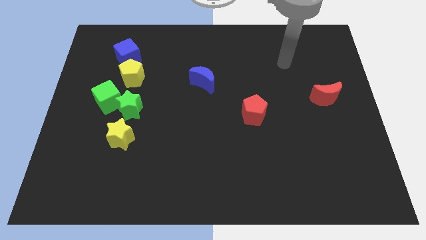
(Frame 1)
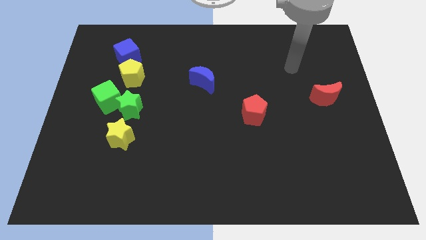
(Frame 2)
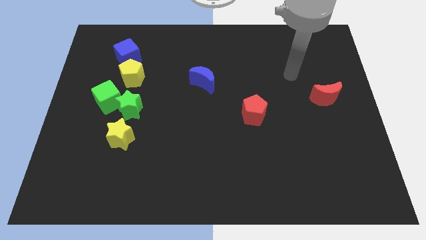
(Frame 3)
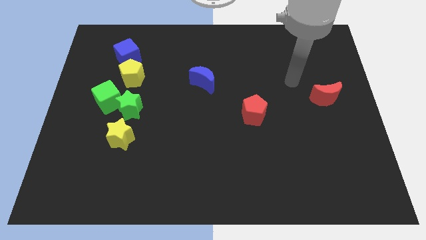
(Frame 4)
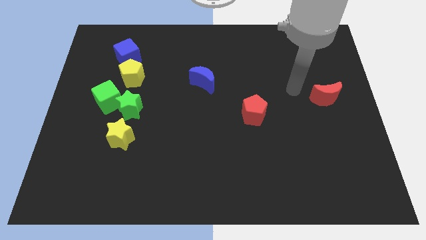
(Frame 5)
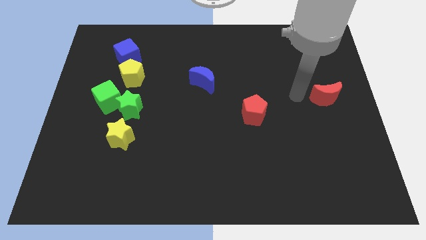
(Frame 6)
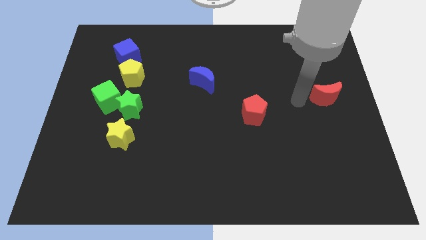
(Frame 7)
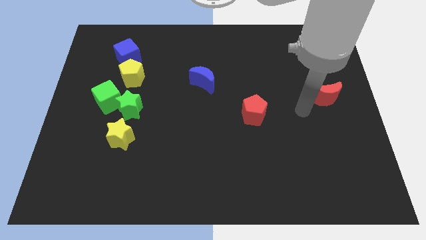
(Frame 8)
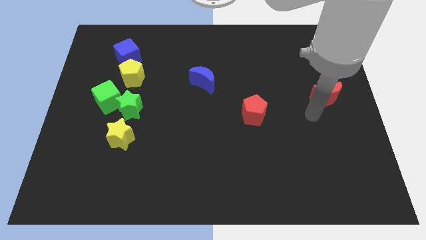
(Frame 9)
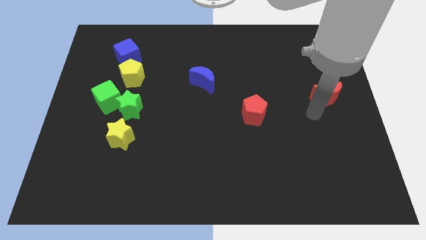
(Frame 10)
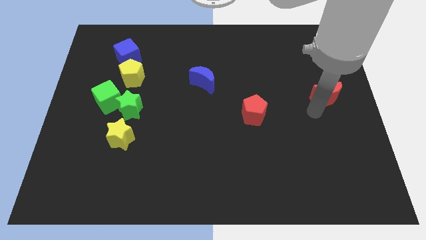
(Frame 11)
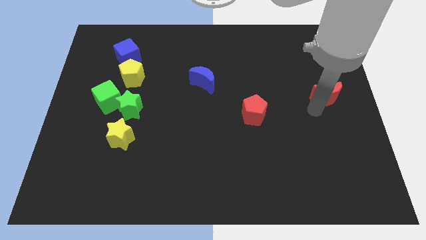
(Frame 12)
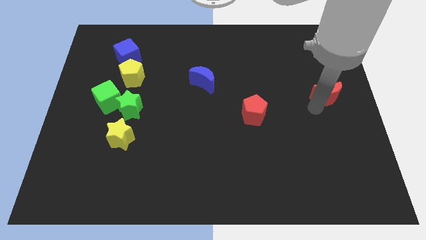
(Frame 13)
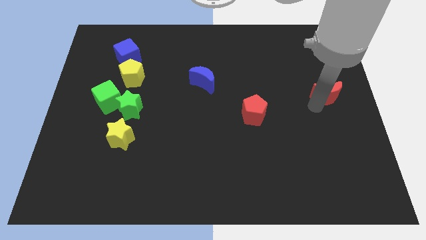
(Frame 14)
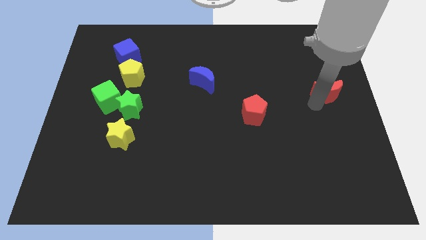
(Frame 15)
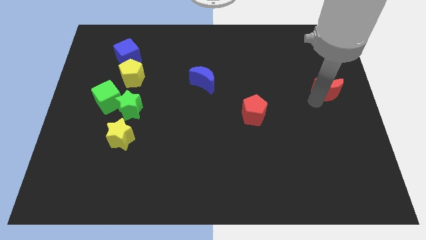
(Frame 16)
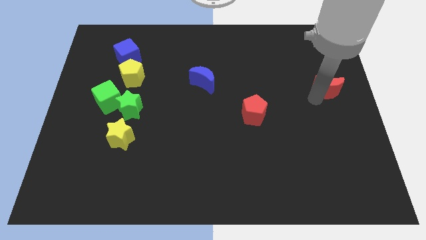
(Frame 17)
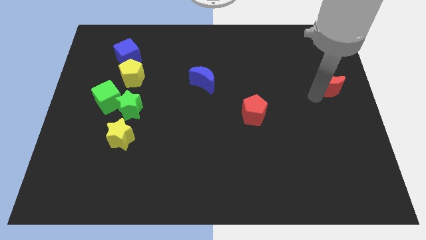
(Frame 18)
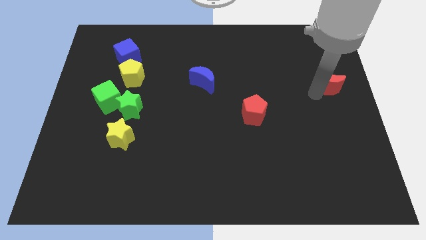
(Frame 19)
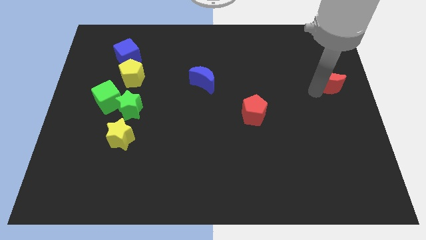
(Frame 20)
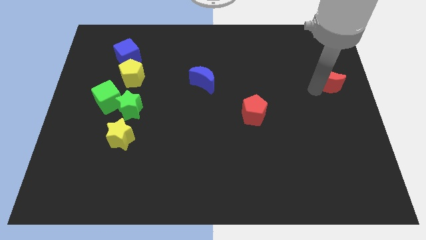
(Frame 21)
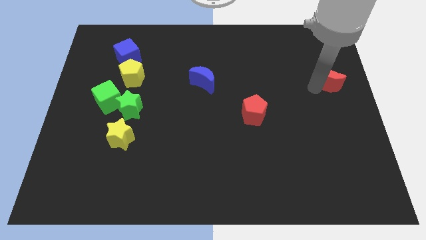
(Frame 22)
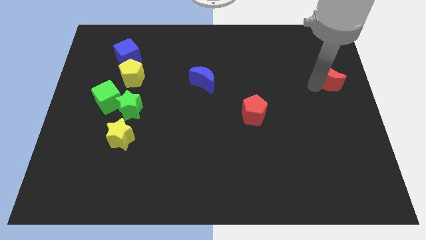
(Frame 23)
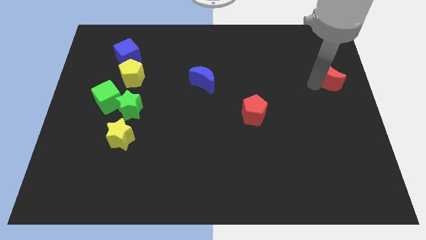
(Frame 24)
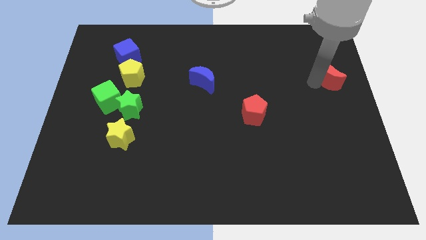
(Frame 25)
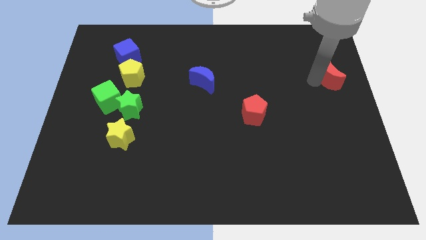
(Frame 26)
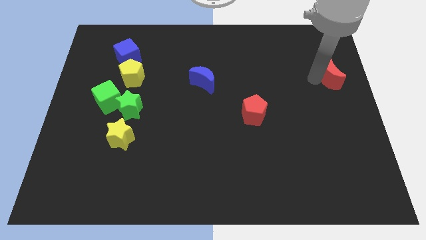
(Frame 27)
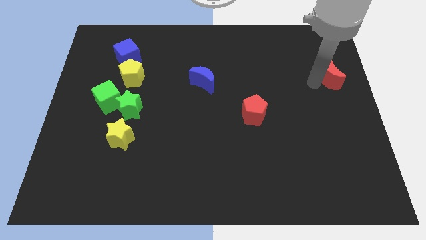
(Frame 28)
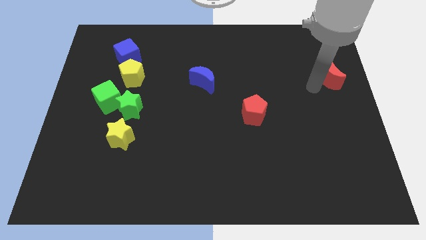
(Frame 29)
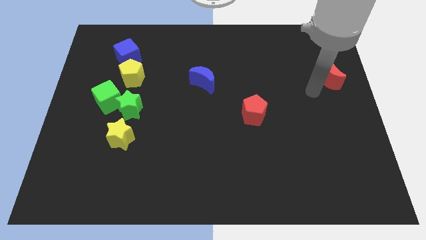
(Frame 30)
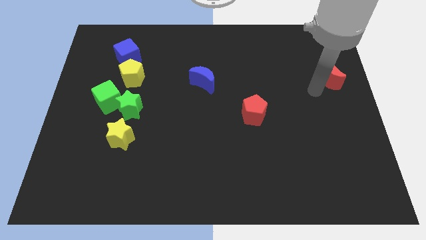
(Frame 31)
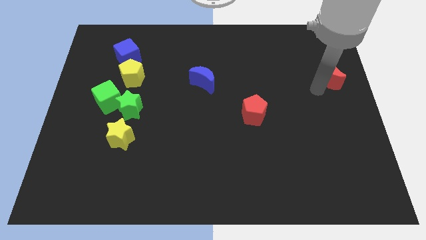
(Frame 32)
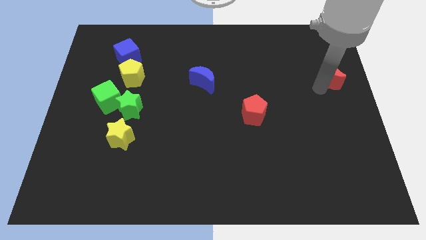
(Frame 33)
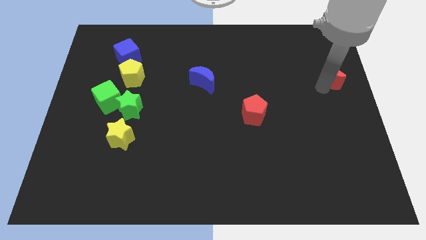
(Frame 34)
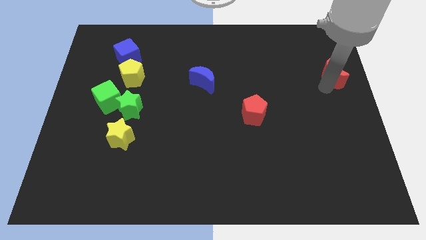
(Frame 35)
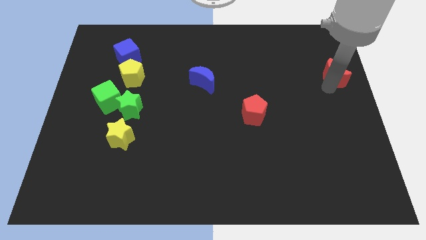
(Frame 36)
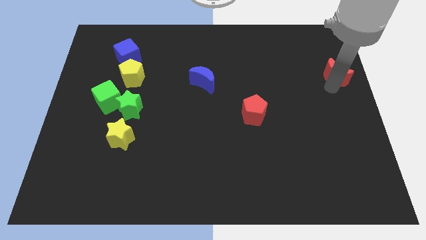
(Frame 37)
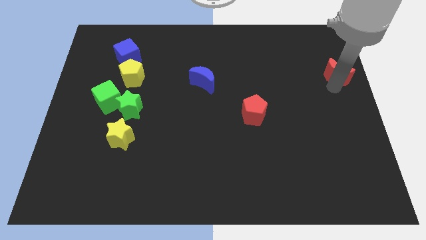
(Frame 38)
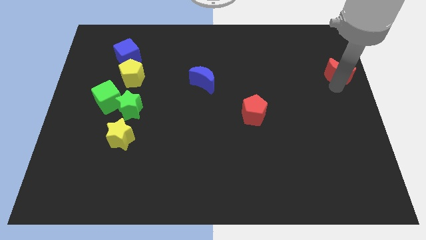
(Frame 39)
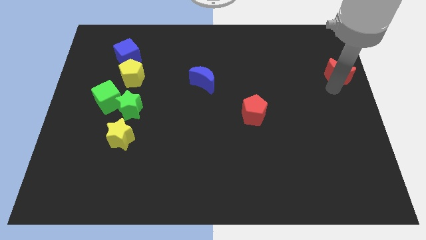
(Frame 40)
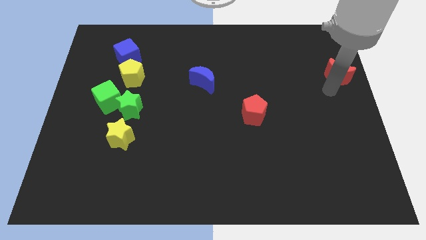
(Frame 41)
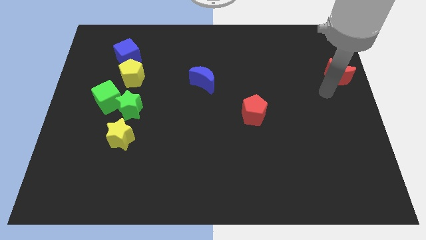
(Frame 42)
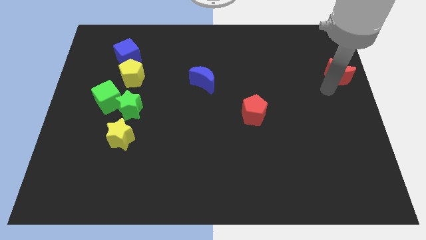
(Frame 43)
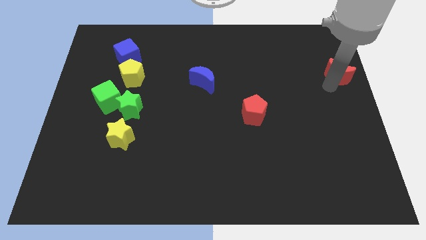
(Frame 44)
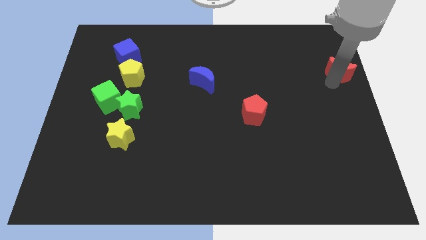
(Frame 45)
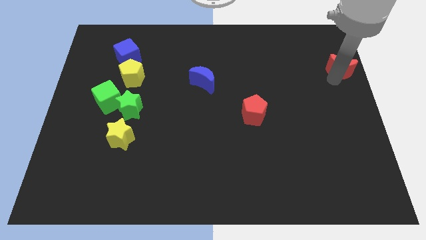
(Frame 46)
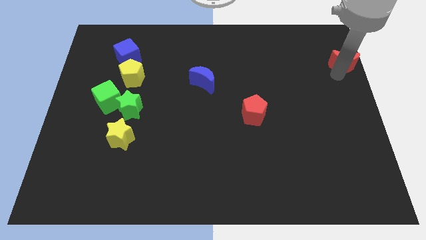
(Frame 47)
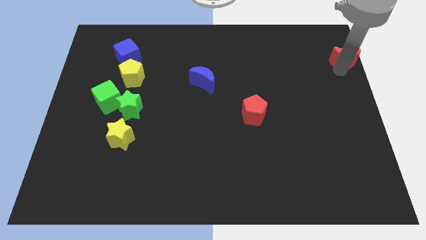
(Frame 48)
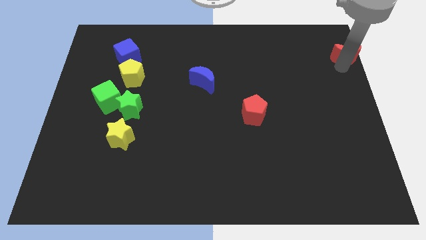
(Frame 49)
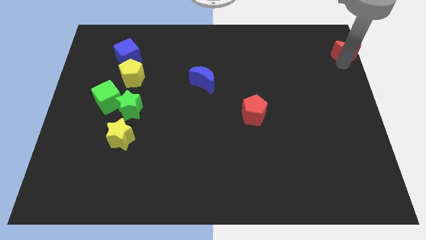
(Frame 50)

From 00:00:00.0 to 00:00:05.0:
move the red moon to the upper right corner

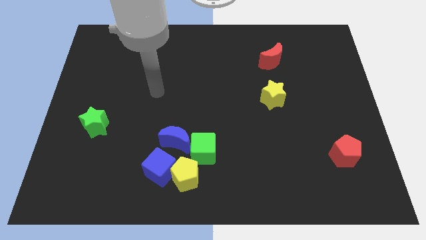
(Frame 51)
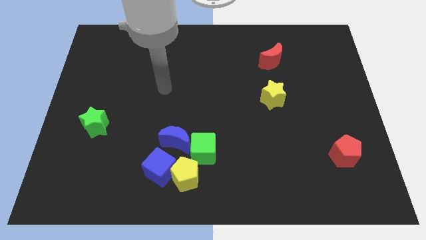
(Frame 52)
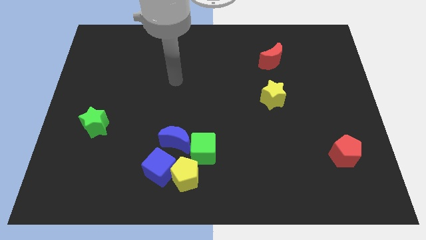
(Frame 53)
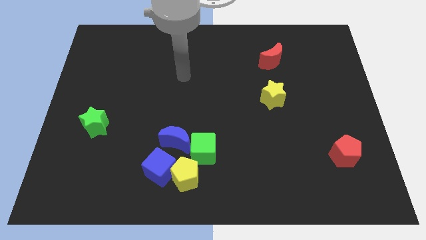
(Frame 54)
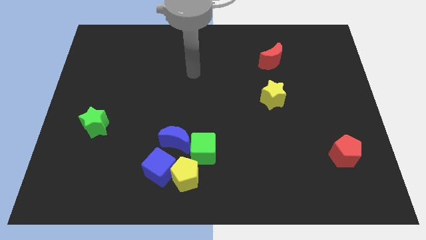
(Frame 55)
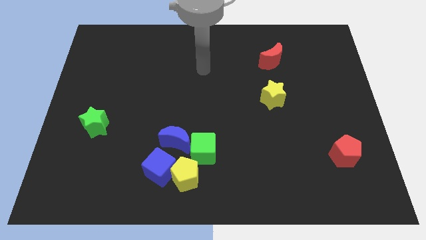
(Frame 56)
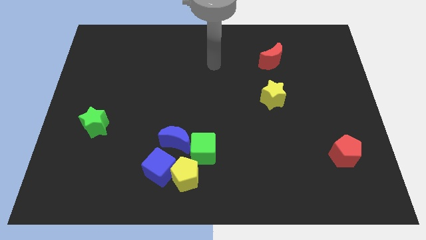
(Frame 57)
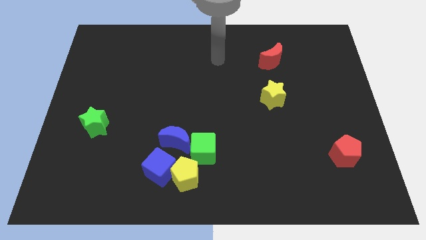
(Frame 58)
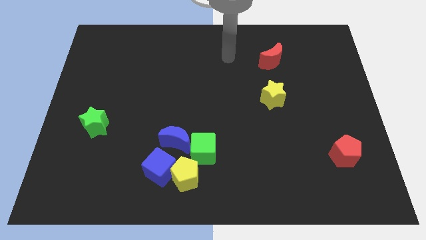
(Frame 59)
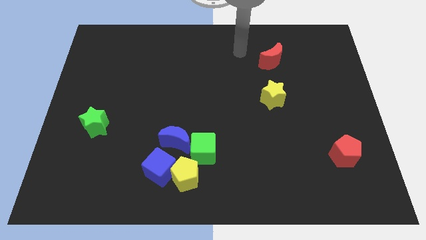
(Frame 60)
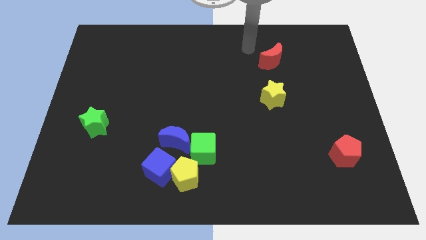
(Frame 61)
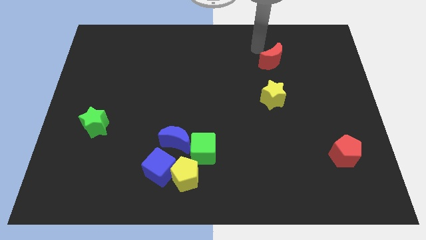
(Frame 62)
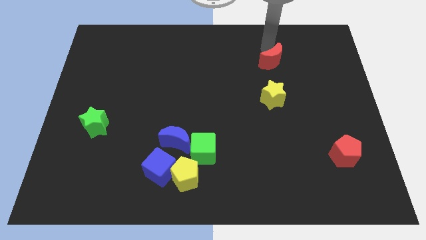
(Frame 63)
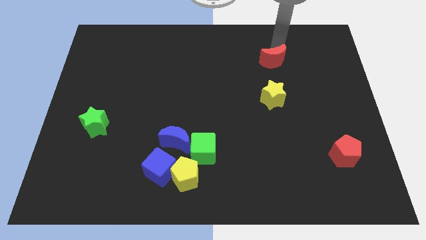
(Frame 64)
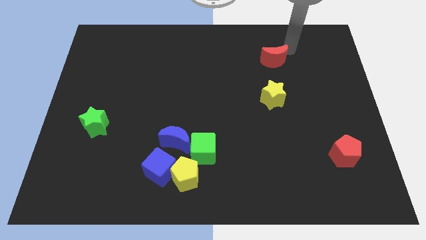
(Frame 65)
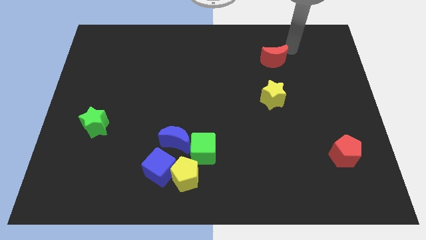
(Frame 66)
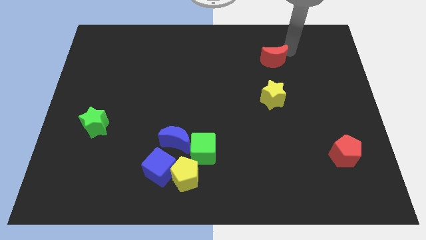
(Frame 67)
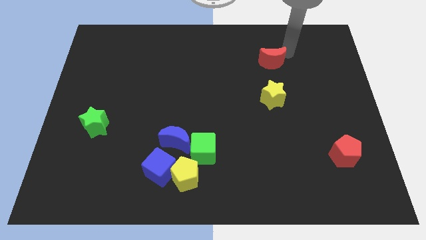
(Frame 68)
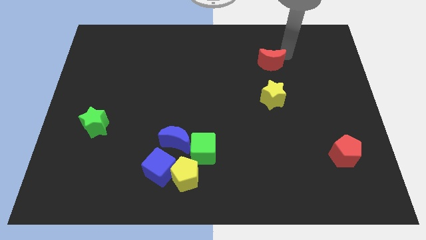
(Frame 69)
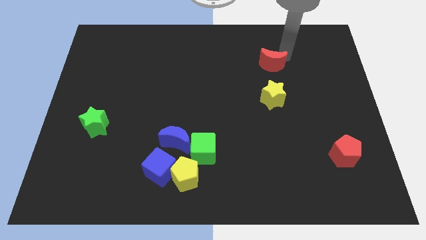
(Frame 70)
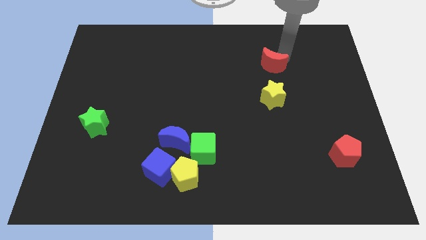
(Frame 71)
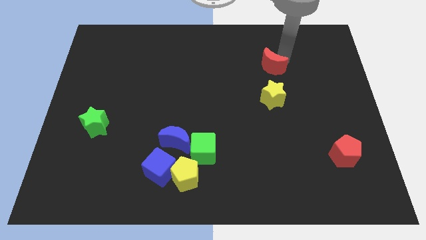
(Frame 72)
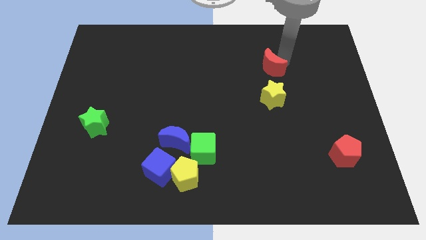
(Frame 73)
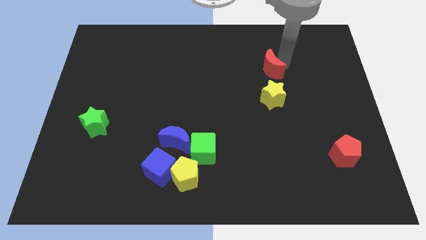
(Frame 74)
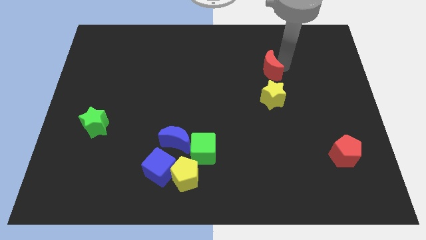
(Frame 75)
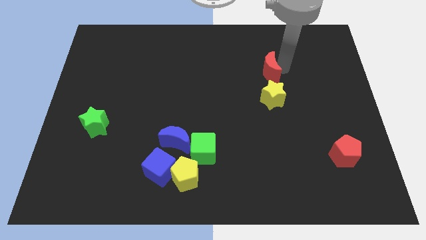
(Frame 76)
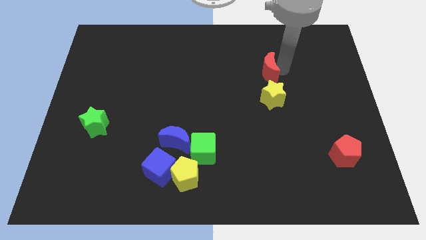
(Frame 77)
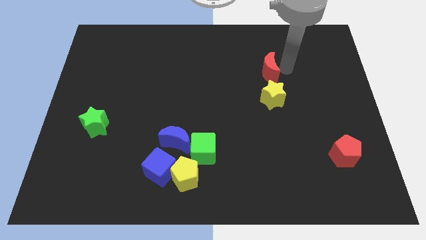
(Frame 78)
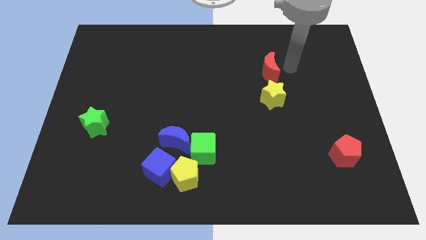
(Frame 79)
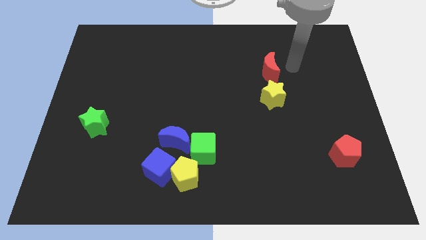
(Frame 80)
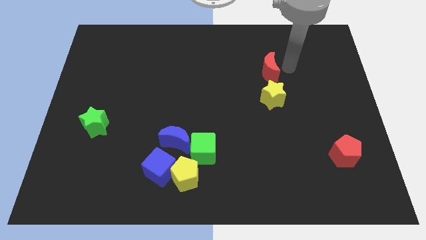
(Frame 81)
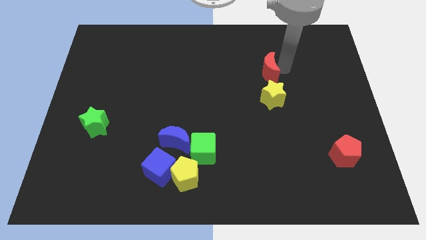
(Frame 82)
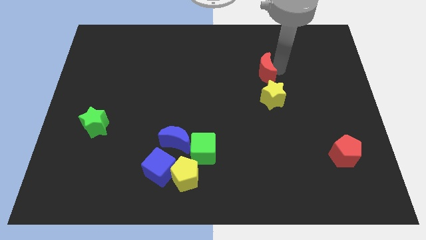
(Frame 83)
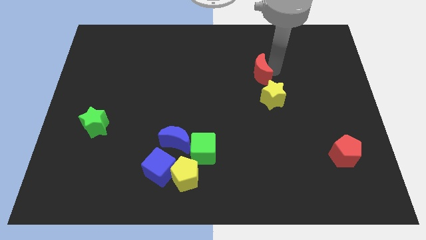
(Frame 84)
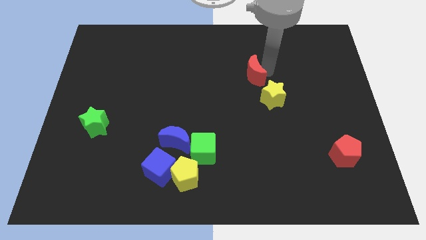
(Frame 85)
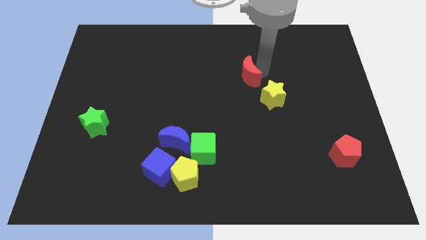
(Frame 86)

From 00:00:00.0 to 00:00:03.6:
push the red moon to the middle
